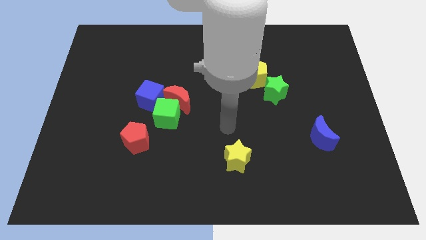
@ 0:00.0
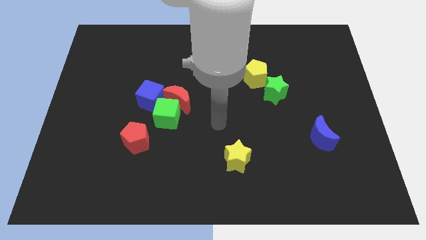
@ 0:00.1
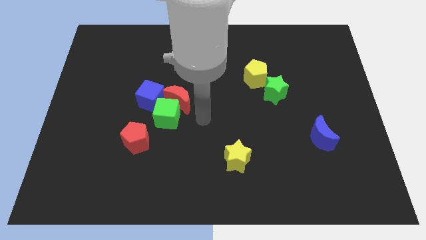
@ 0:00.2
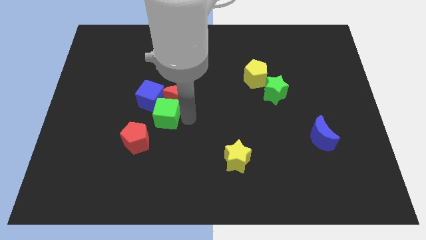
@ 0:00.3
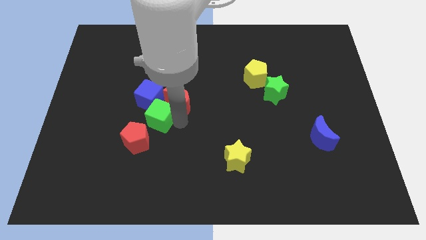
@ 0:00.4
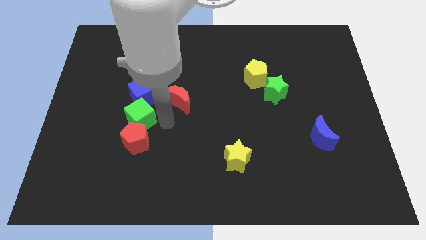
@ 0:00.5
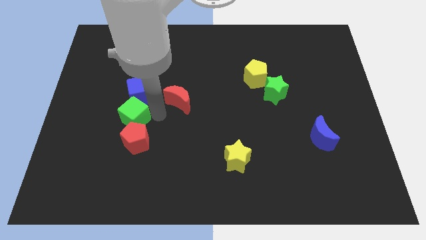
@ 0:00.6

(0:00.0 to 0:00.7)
pull the red moon apart from the green cube and blue cube

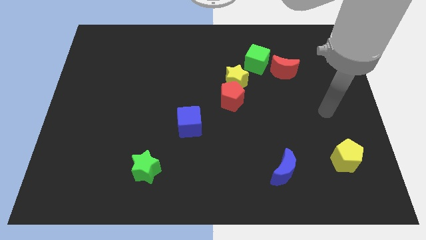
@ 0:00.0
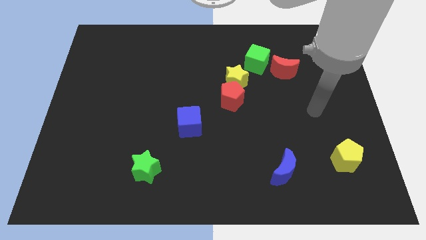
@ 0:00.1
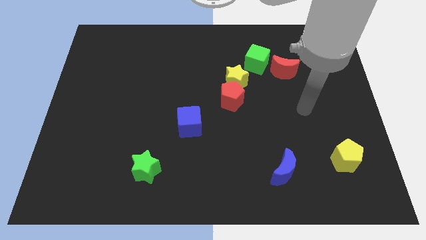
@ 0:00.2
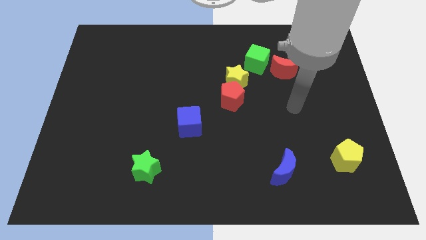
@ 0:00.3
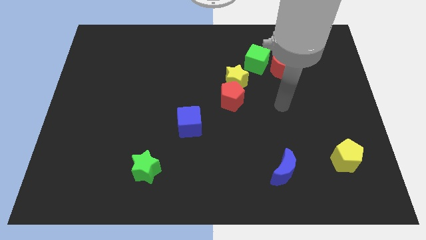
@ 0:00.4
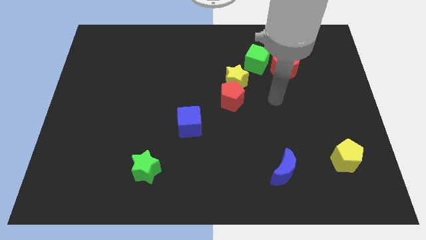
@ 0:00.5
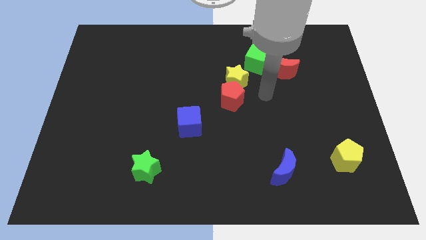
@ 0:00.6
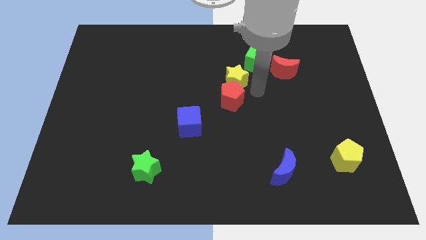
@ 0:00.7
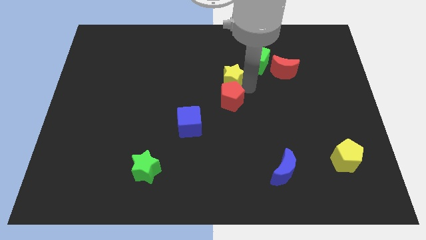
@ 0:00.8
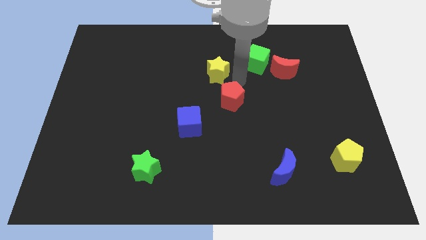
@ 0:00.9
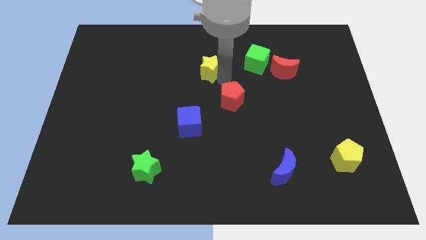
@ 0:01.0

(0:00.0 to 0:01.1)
pull the red pentagon apart from the yellow star

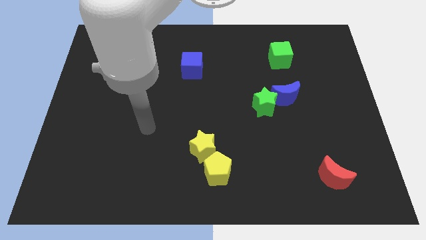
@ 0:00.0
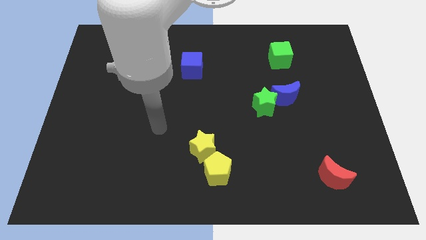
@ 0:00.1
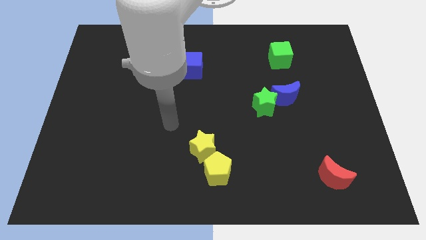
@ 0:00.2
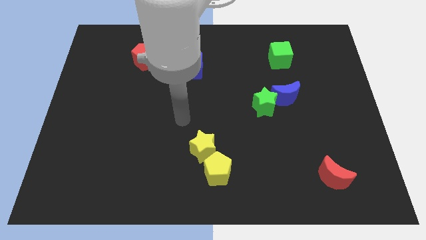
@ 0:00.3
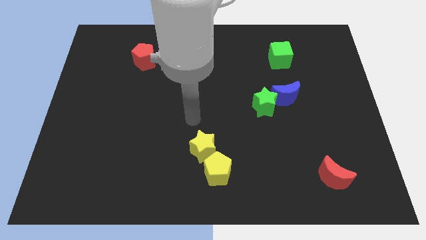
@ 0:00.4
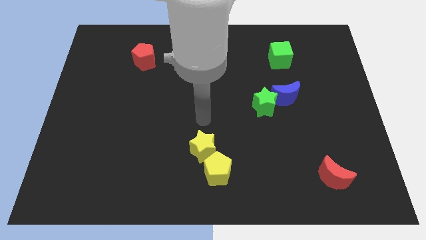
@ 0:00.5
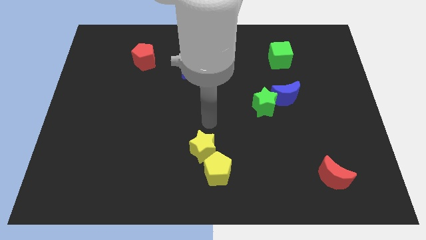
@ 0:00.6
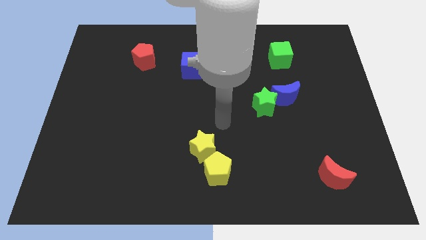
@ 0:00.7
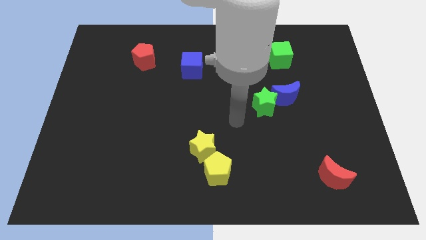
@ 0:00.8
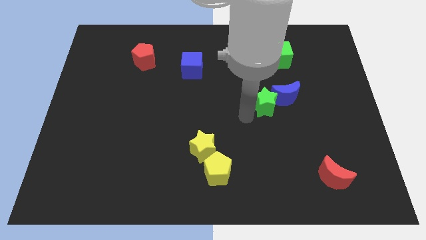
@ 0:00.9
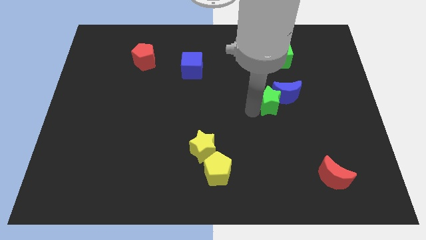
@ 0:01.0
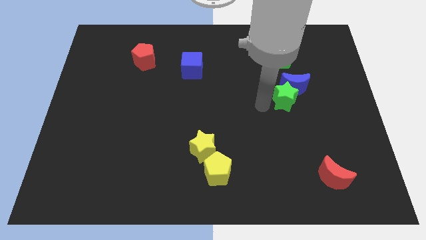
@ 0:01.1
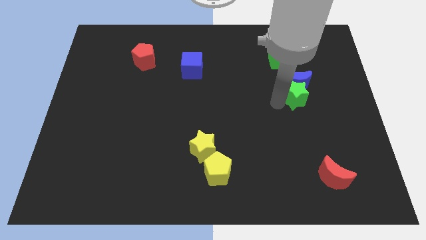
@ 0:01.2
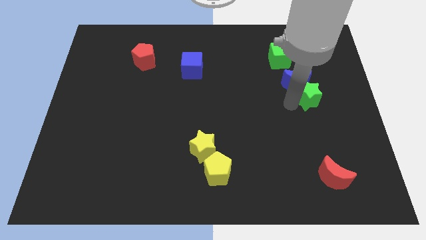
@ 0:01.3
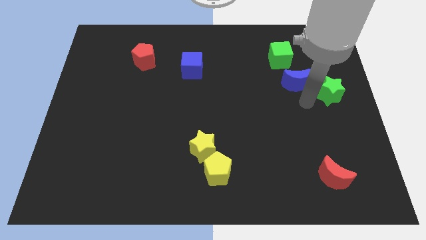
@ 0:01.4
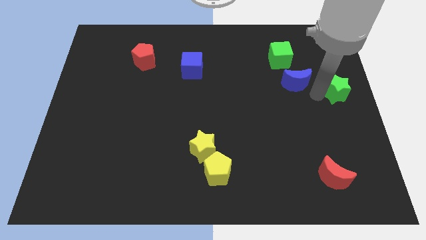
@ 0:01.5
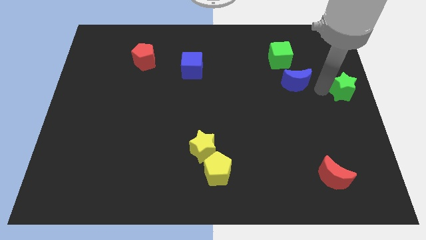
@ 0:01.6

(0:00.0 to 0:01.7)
pull the blue moon apart from the green star

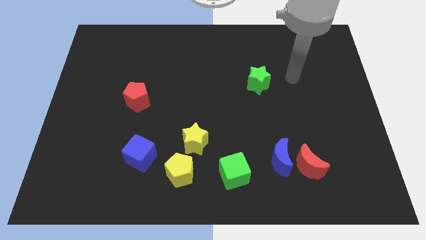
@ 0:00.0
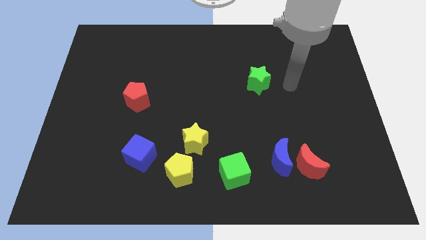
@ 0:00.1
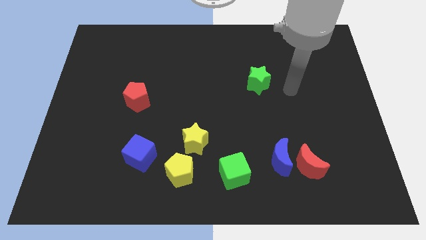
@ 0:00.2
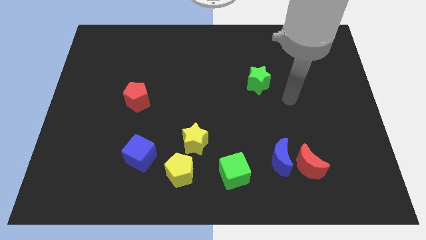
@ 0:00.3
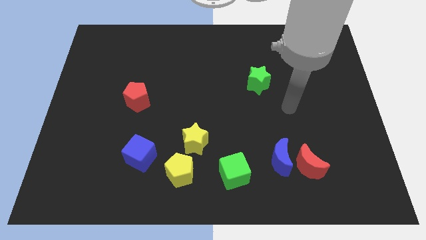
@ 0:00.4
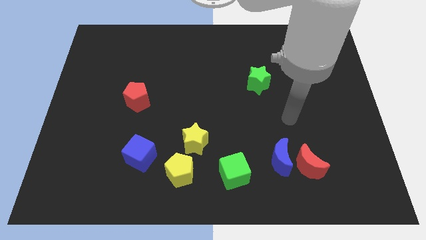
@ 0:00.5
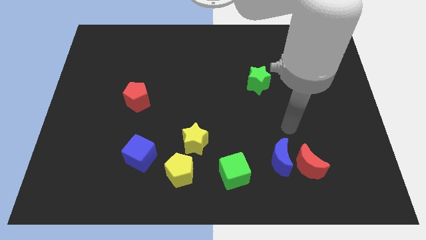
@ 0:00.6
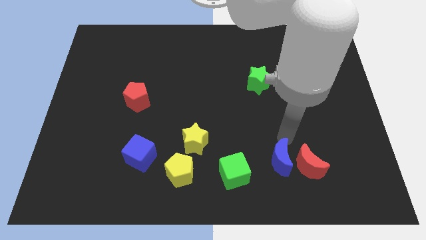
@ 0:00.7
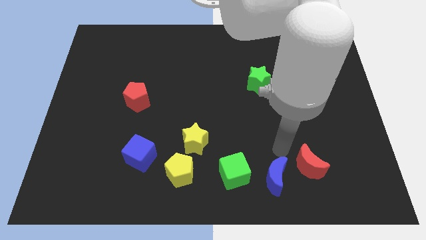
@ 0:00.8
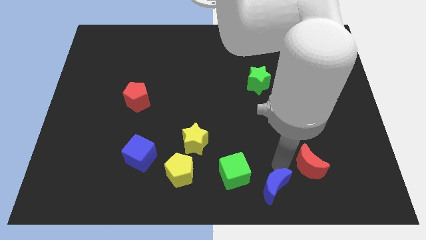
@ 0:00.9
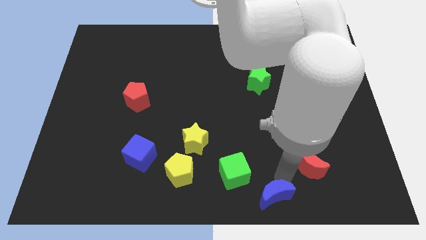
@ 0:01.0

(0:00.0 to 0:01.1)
move the red moon away from the blue moon

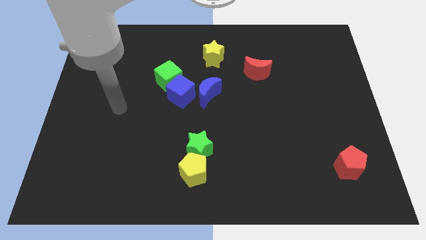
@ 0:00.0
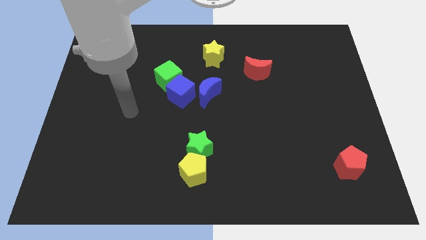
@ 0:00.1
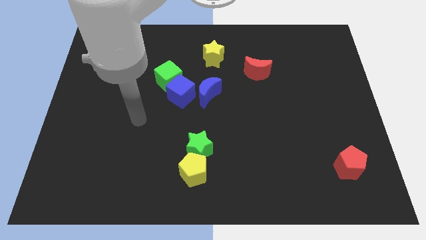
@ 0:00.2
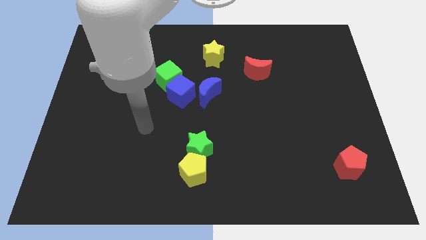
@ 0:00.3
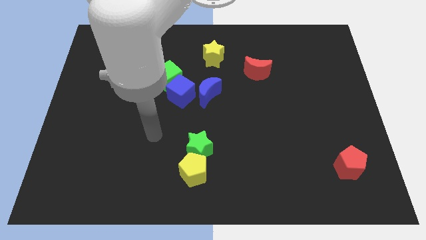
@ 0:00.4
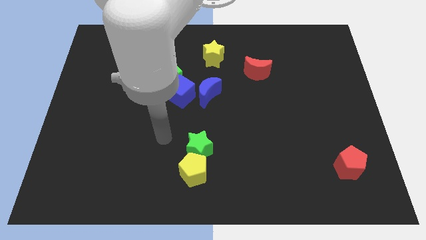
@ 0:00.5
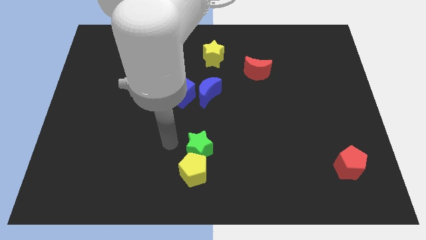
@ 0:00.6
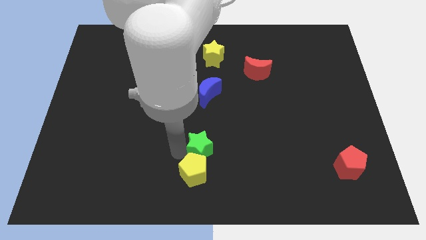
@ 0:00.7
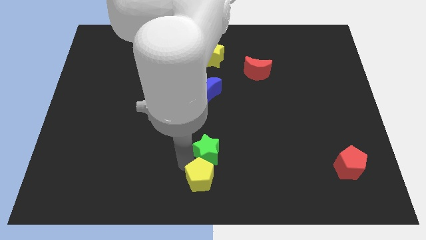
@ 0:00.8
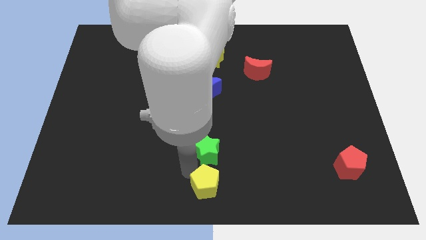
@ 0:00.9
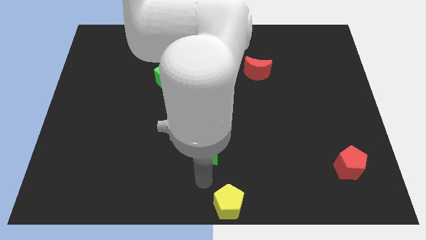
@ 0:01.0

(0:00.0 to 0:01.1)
separate the green star from the yellow pentagon

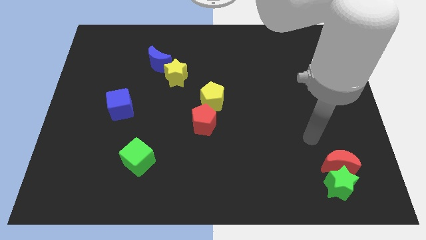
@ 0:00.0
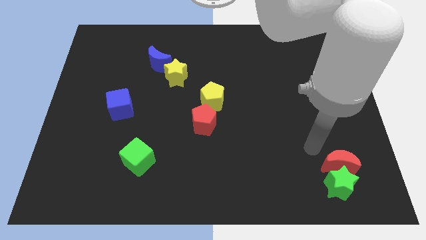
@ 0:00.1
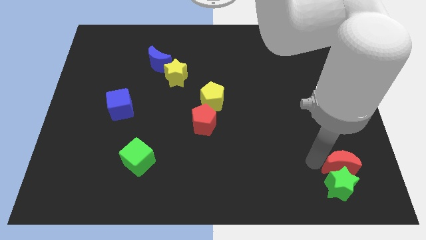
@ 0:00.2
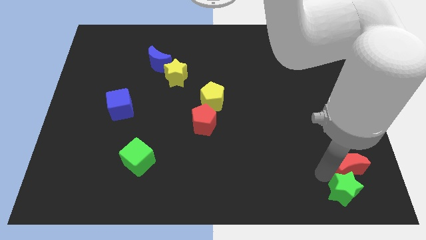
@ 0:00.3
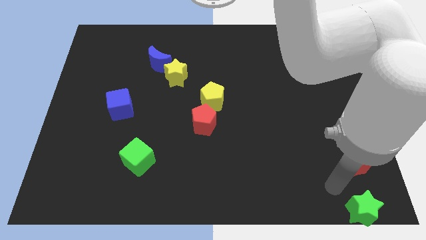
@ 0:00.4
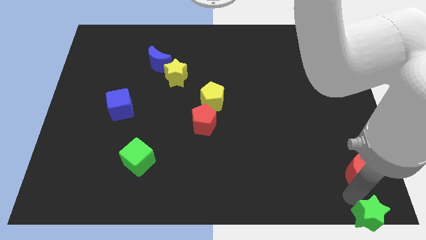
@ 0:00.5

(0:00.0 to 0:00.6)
pull the red moon apart from the green star

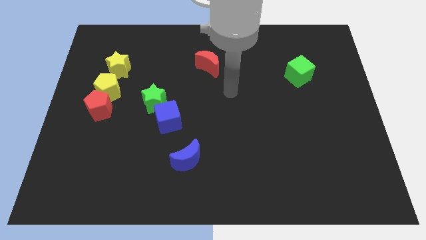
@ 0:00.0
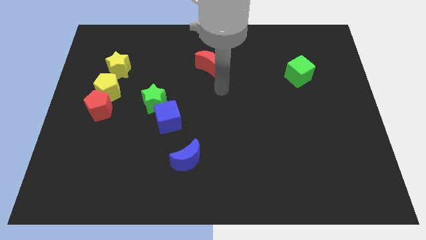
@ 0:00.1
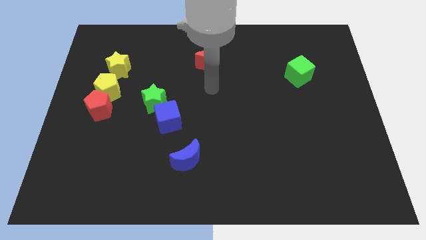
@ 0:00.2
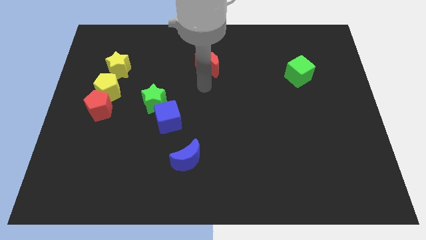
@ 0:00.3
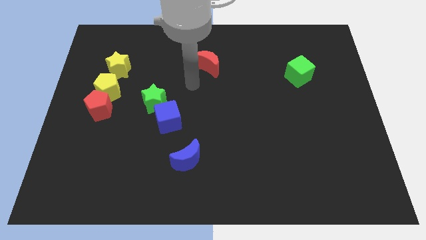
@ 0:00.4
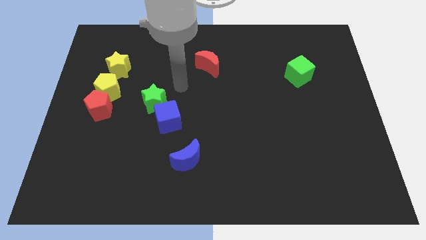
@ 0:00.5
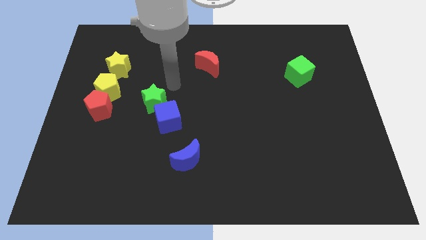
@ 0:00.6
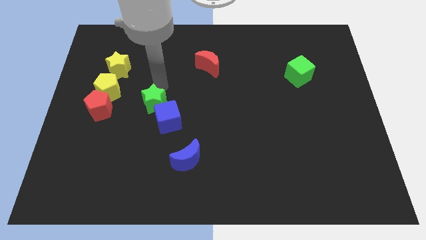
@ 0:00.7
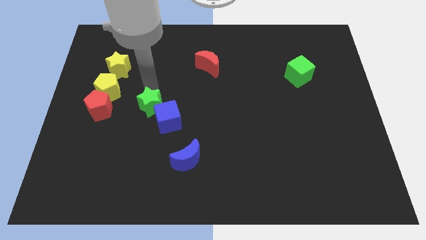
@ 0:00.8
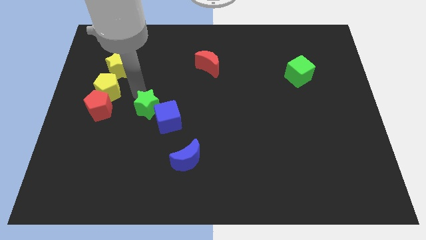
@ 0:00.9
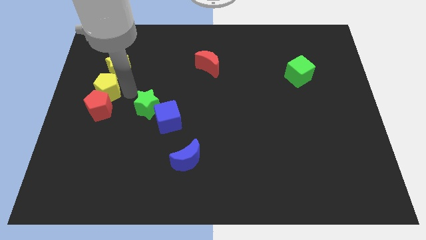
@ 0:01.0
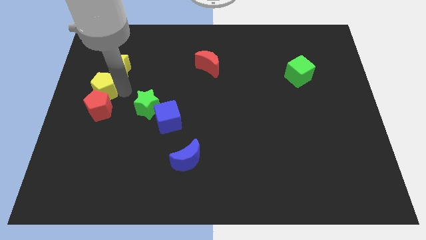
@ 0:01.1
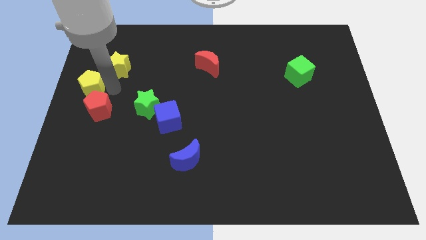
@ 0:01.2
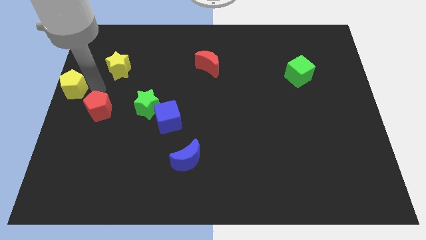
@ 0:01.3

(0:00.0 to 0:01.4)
separate the red pentagon from the yellow pentagon

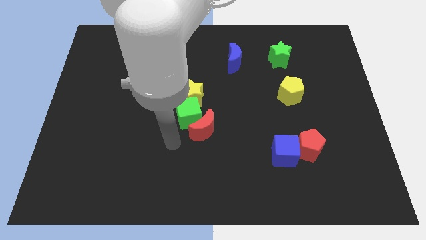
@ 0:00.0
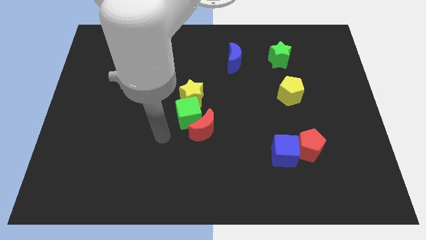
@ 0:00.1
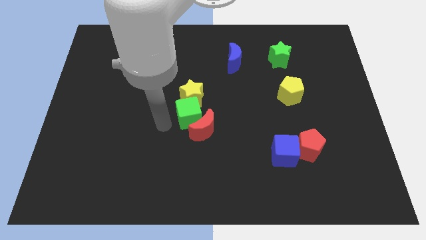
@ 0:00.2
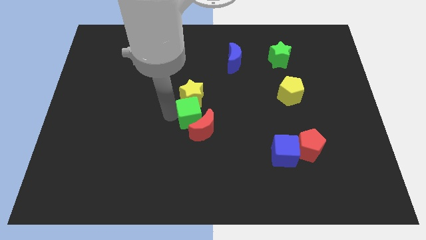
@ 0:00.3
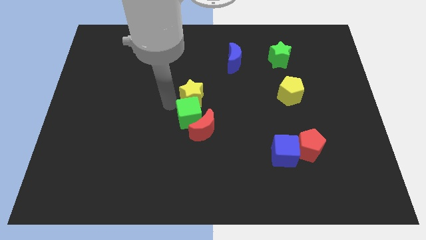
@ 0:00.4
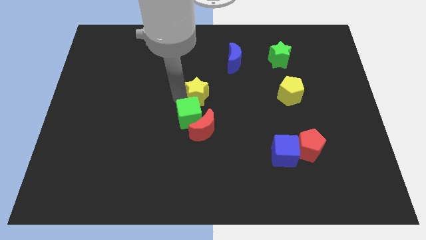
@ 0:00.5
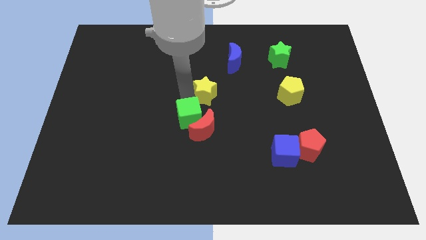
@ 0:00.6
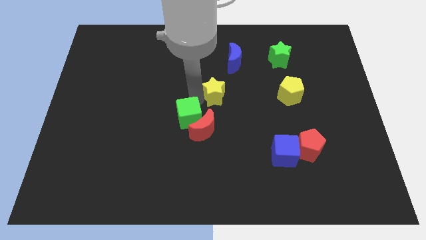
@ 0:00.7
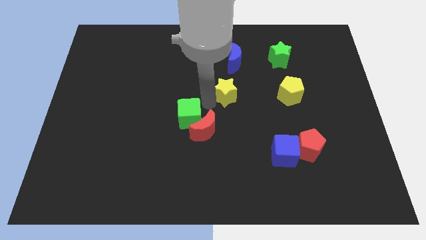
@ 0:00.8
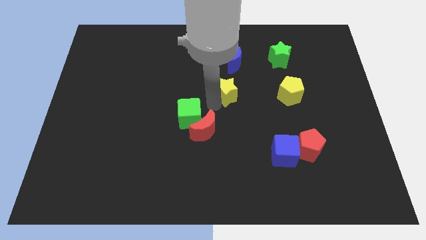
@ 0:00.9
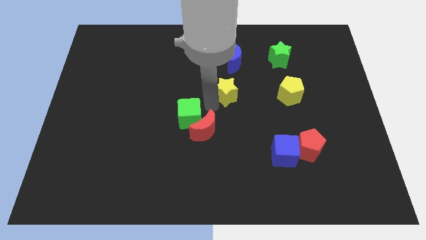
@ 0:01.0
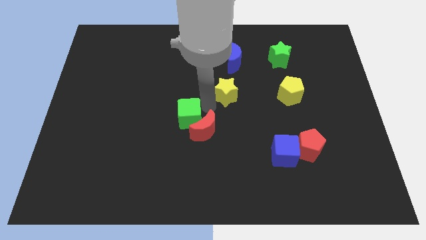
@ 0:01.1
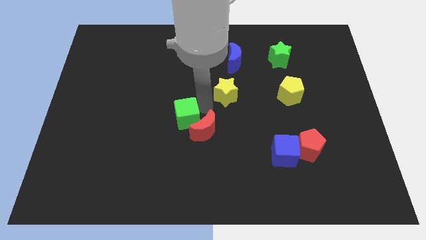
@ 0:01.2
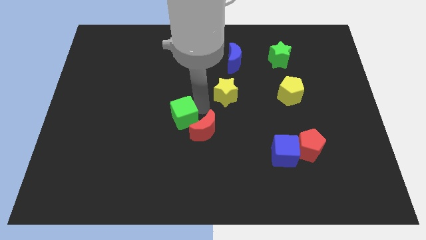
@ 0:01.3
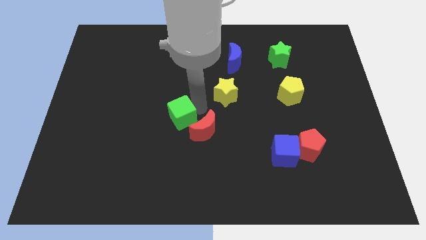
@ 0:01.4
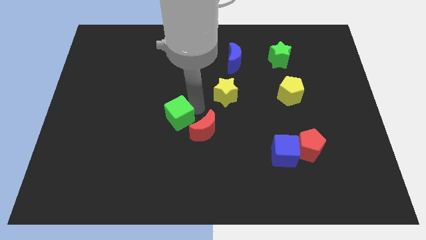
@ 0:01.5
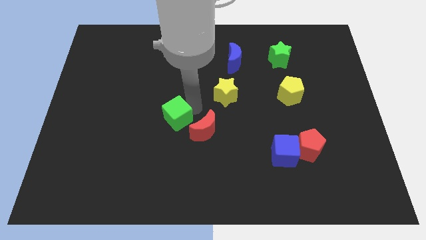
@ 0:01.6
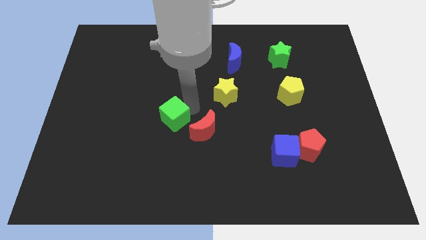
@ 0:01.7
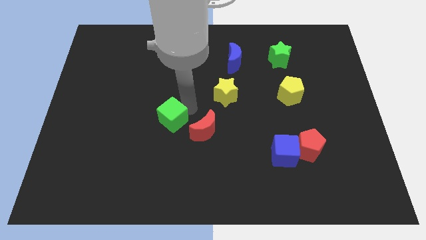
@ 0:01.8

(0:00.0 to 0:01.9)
move the green cube away from the red moon and yellow star
